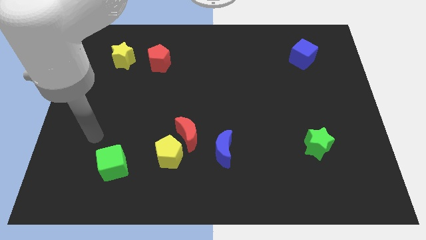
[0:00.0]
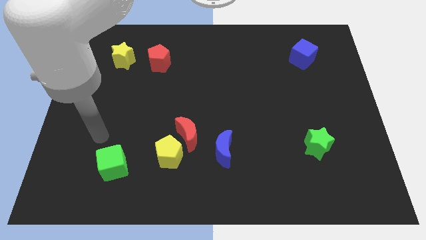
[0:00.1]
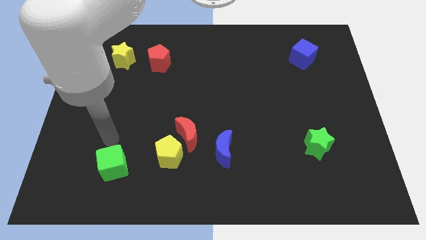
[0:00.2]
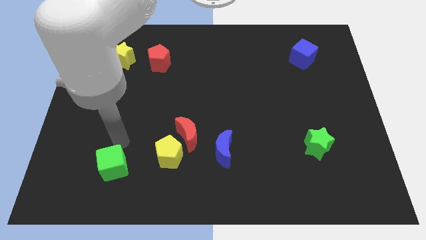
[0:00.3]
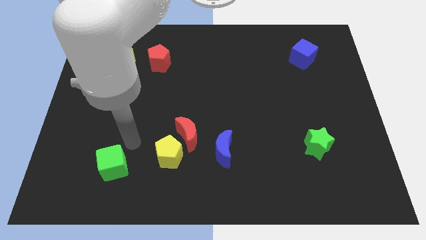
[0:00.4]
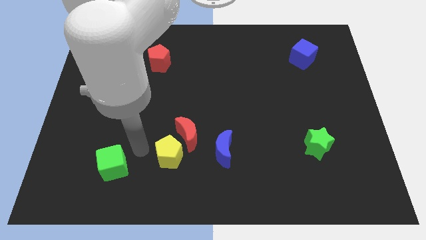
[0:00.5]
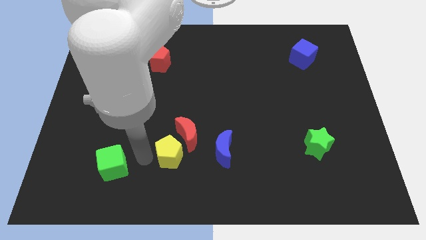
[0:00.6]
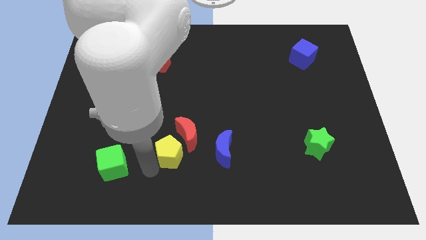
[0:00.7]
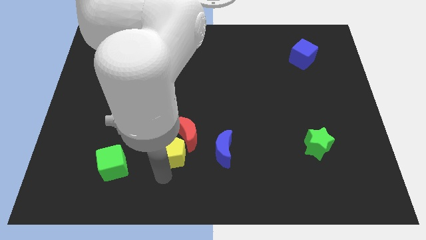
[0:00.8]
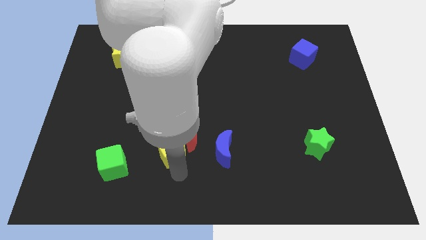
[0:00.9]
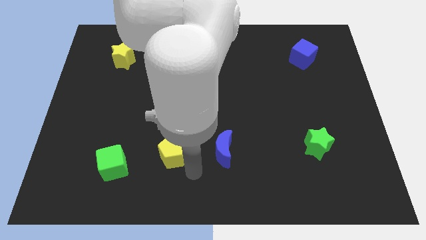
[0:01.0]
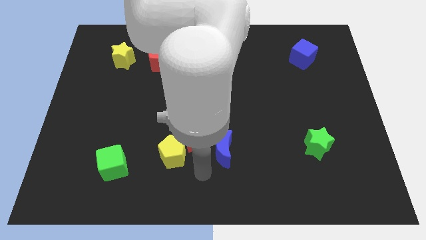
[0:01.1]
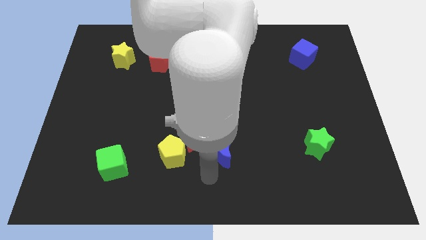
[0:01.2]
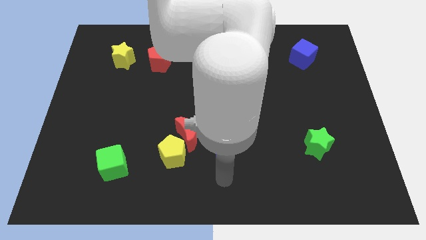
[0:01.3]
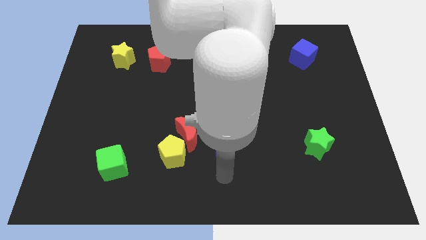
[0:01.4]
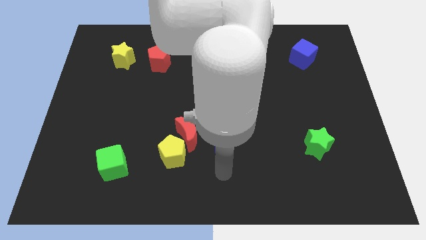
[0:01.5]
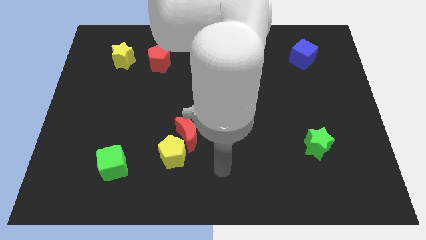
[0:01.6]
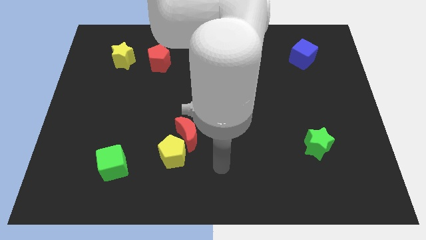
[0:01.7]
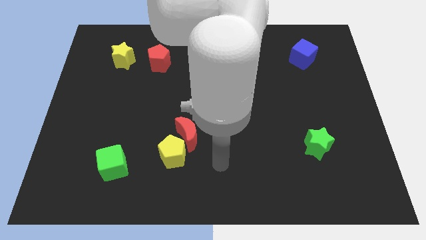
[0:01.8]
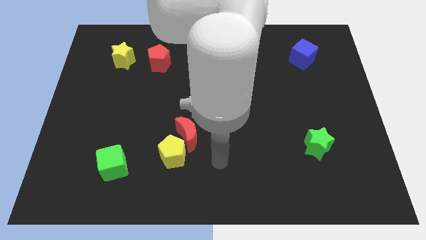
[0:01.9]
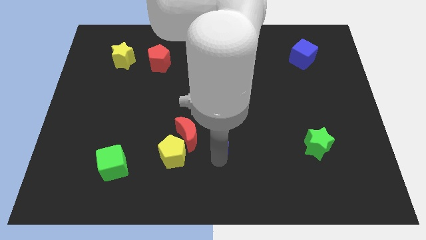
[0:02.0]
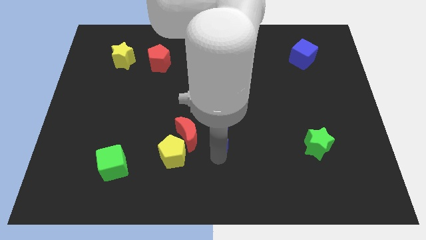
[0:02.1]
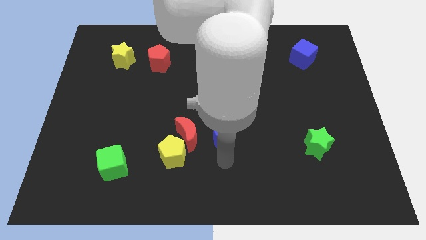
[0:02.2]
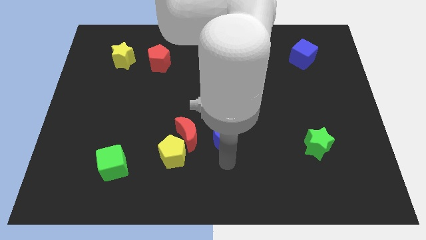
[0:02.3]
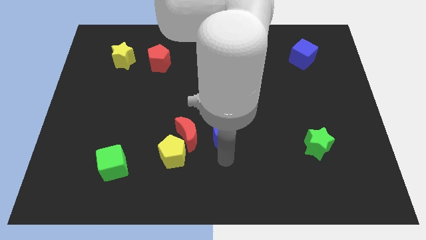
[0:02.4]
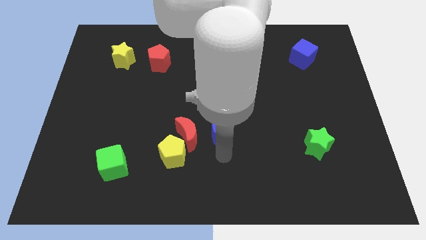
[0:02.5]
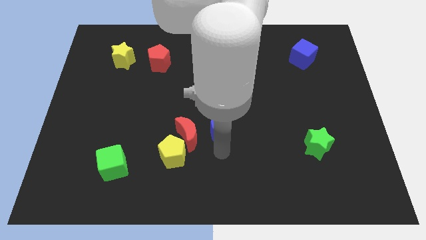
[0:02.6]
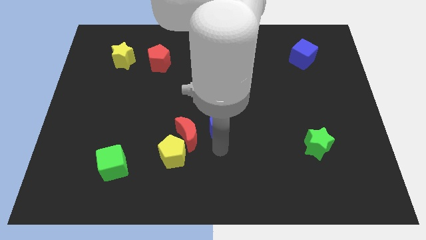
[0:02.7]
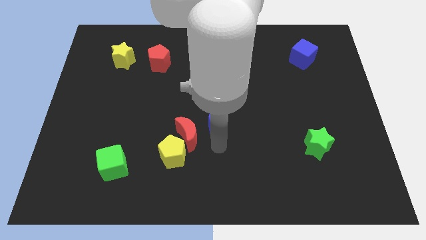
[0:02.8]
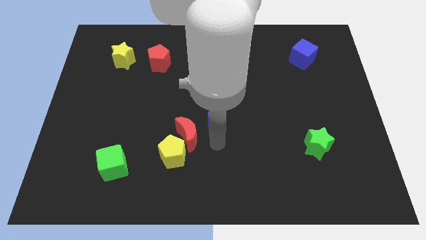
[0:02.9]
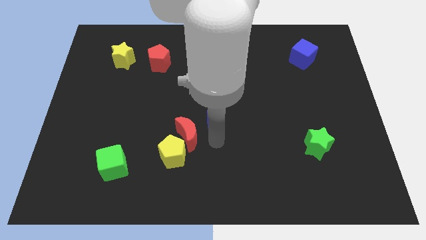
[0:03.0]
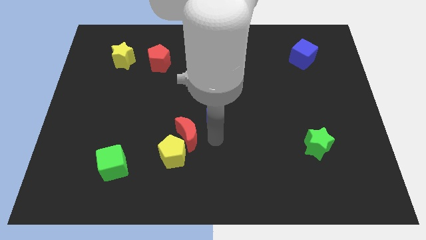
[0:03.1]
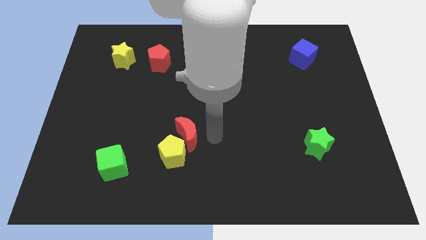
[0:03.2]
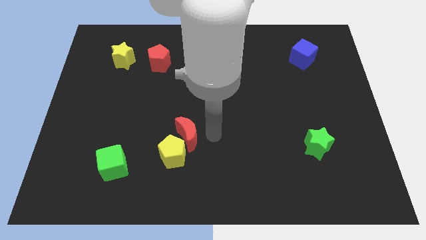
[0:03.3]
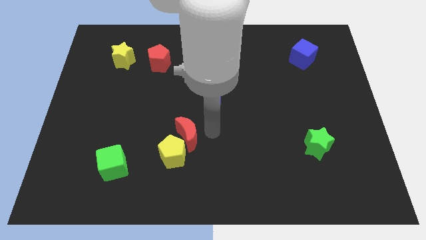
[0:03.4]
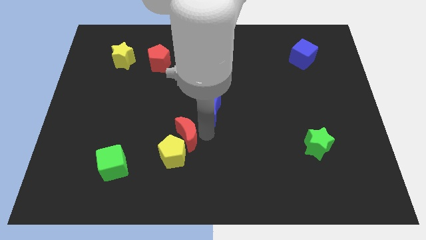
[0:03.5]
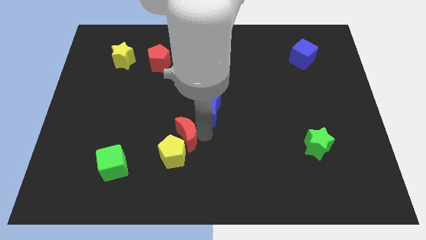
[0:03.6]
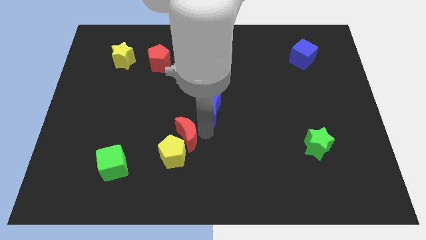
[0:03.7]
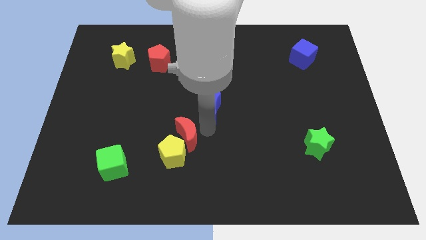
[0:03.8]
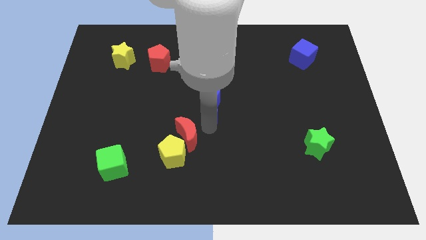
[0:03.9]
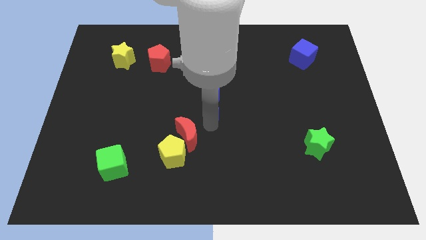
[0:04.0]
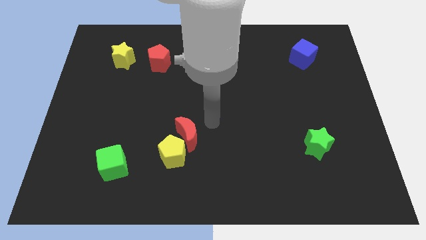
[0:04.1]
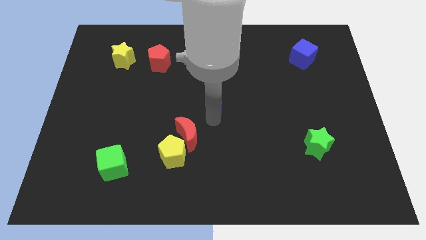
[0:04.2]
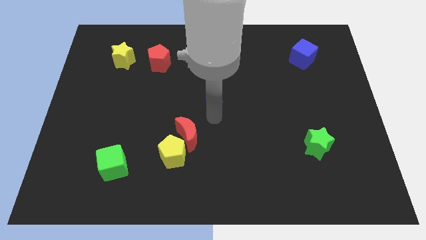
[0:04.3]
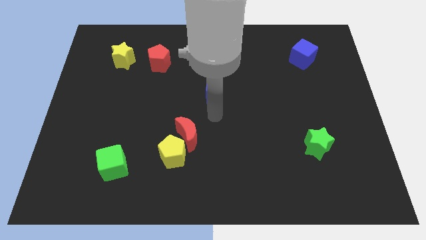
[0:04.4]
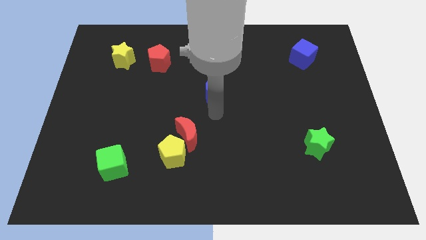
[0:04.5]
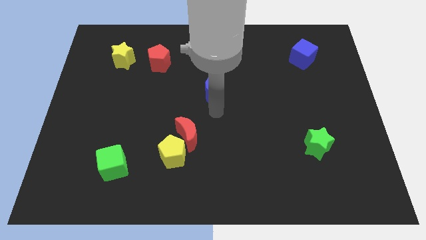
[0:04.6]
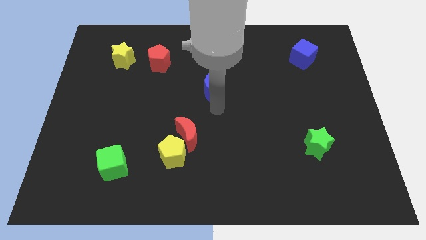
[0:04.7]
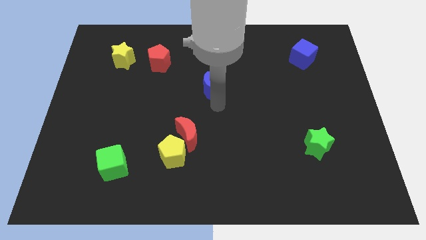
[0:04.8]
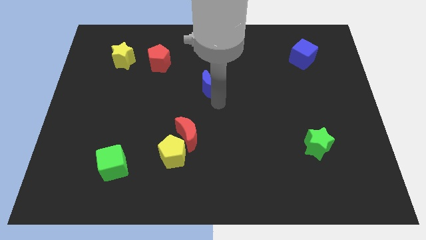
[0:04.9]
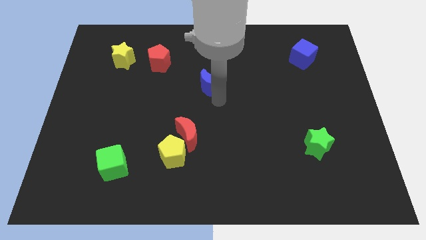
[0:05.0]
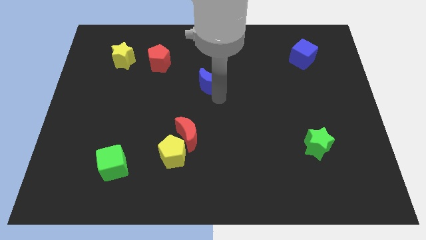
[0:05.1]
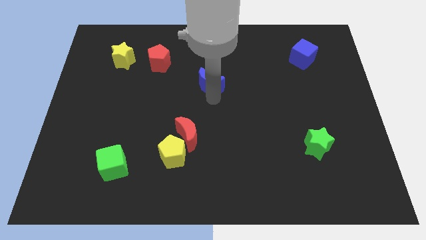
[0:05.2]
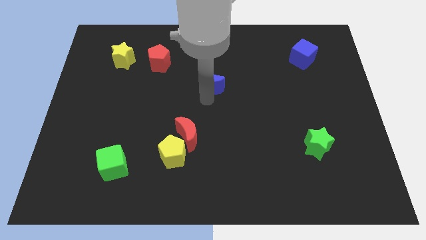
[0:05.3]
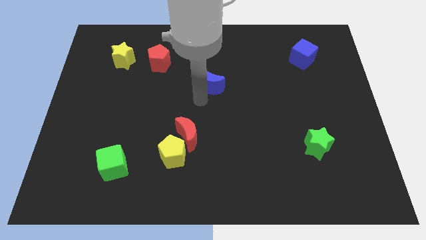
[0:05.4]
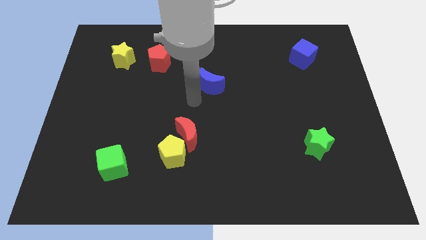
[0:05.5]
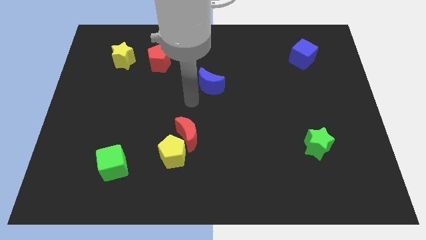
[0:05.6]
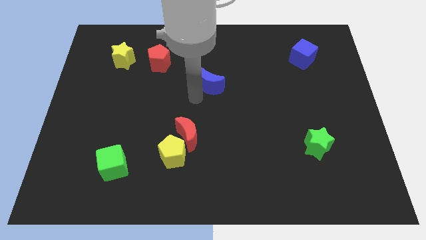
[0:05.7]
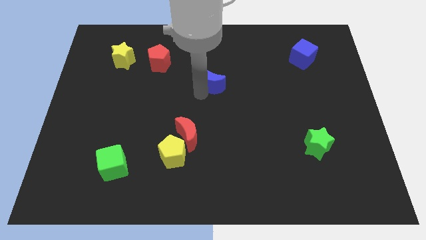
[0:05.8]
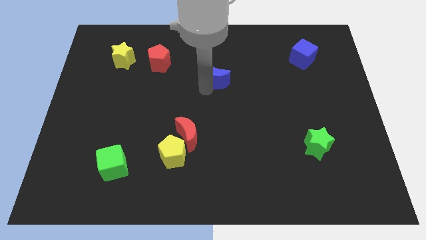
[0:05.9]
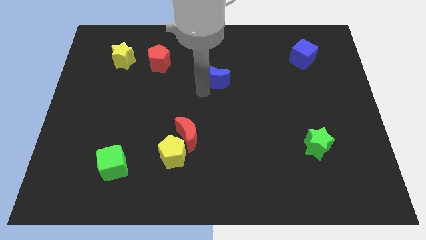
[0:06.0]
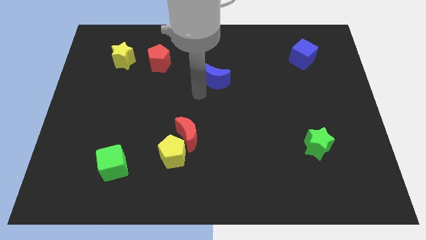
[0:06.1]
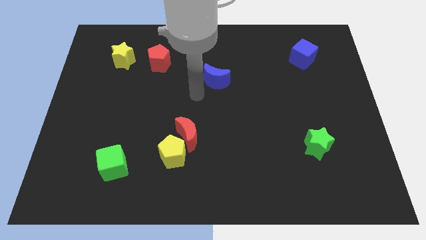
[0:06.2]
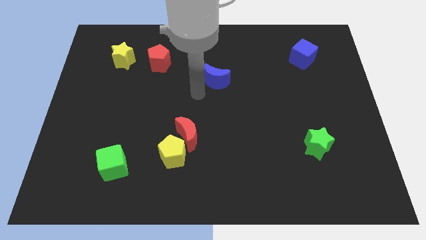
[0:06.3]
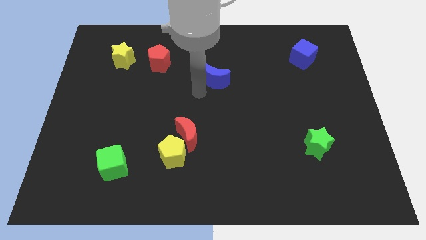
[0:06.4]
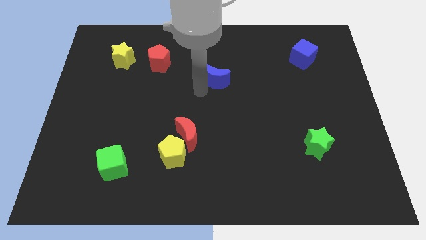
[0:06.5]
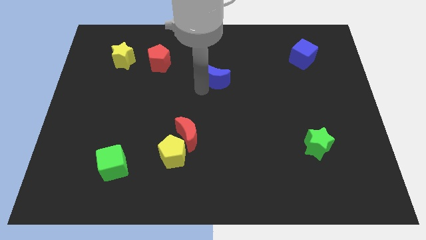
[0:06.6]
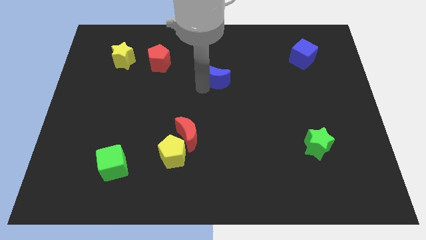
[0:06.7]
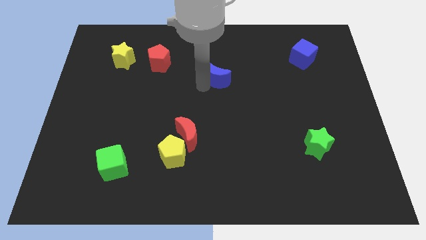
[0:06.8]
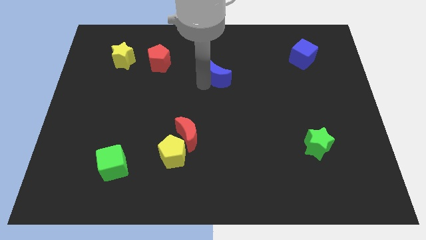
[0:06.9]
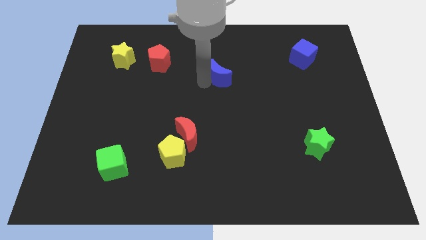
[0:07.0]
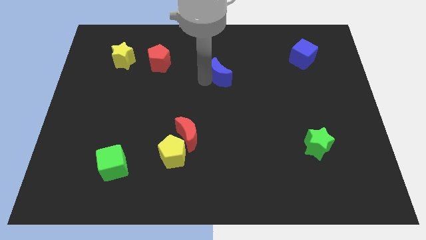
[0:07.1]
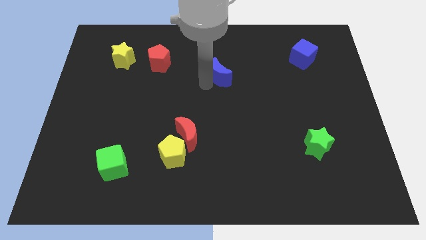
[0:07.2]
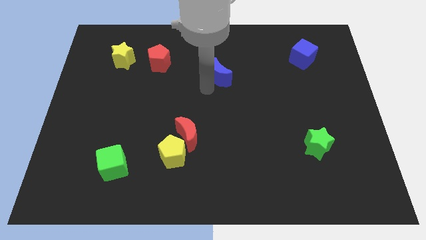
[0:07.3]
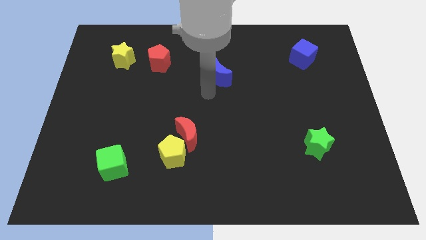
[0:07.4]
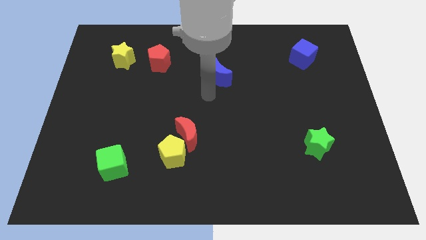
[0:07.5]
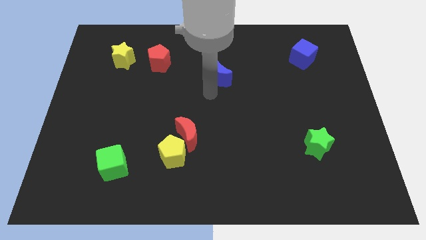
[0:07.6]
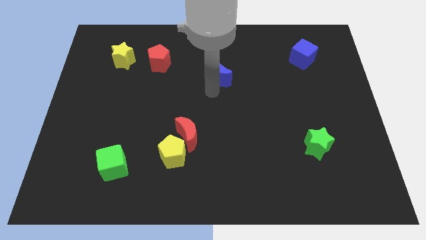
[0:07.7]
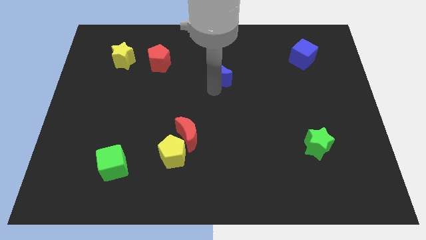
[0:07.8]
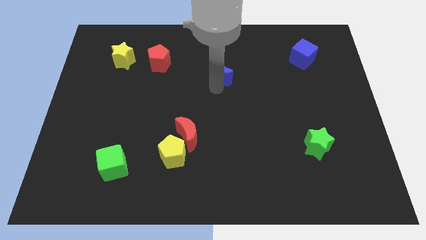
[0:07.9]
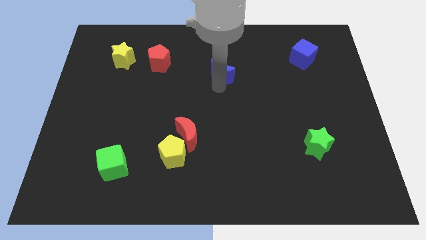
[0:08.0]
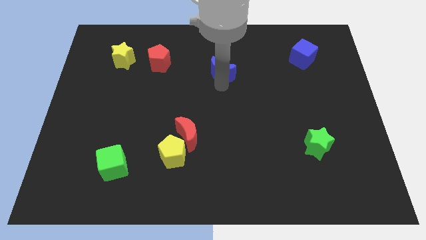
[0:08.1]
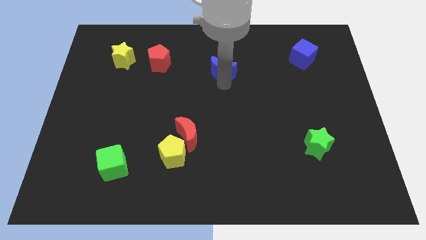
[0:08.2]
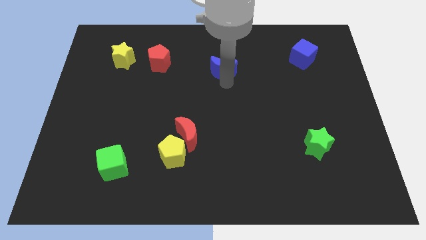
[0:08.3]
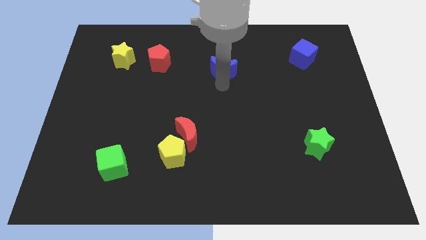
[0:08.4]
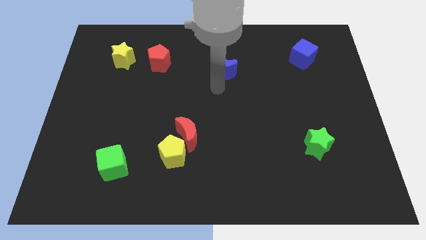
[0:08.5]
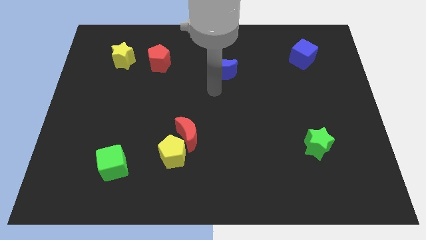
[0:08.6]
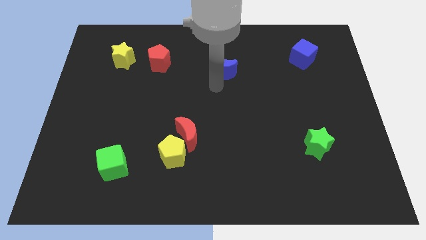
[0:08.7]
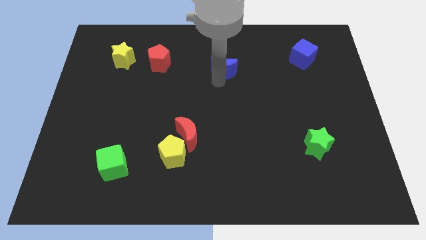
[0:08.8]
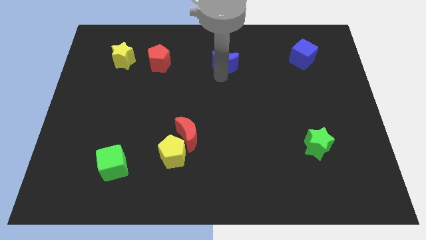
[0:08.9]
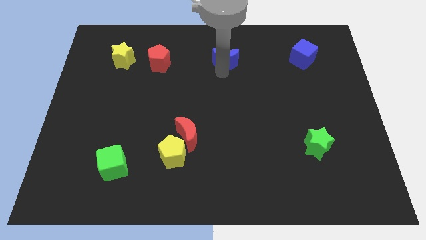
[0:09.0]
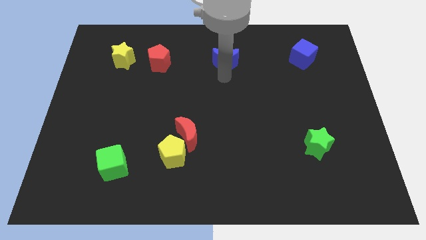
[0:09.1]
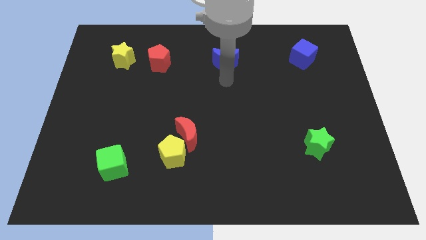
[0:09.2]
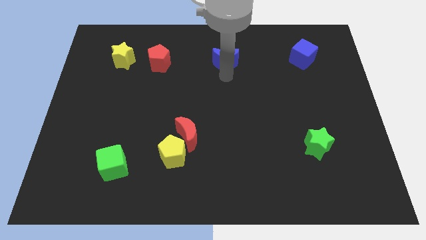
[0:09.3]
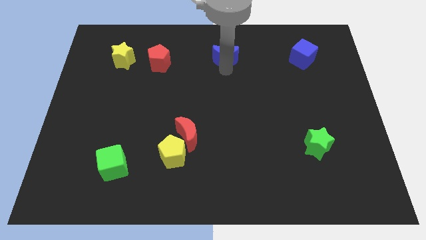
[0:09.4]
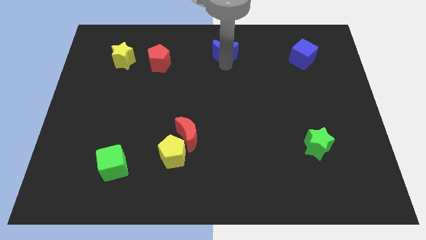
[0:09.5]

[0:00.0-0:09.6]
move the blue moon to the top side
